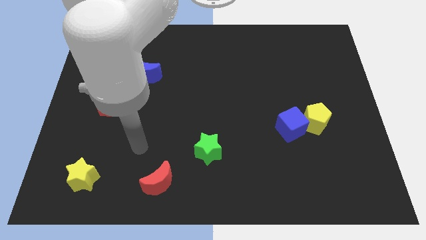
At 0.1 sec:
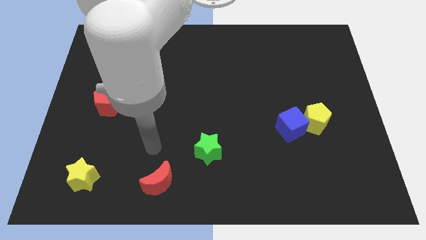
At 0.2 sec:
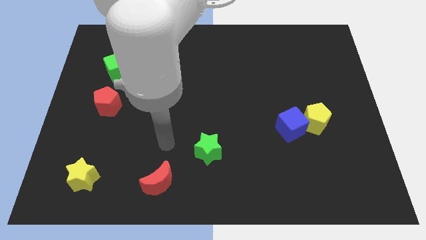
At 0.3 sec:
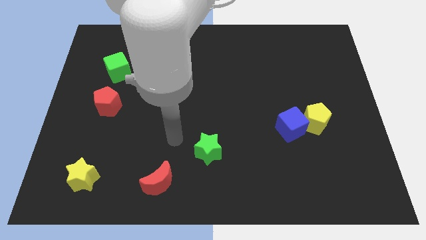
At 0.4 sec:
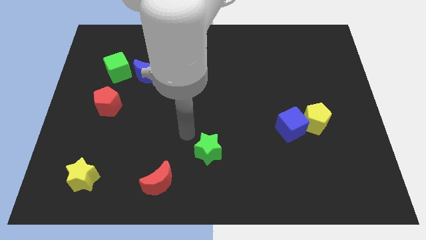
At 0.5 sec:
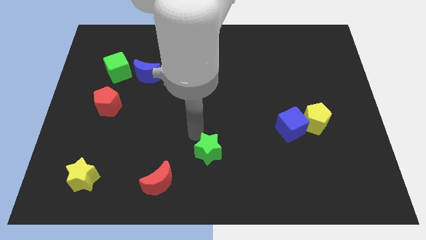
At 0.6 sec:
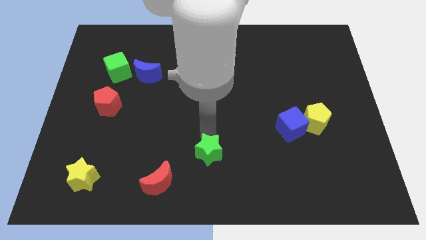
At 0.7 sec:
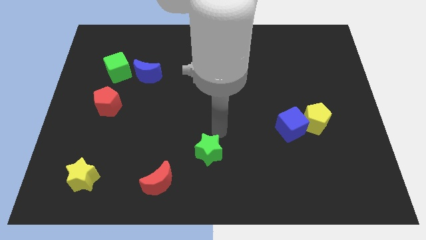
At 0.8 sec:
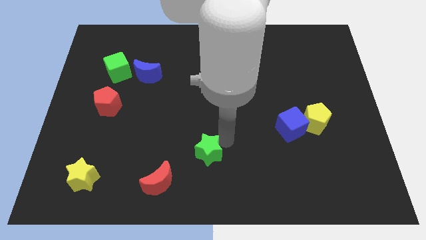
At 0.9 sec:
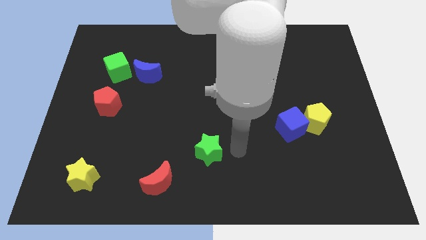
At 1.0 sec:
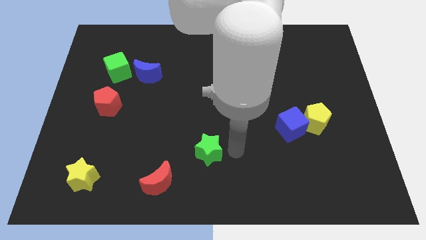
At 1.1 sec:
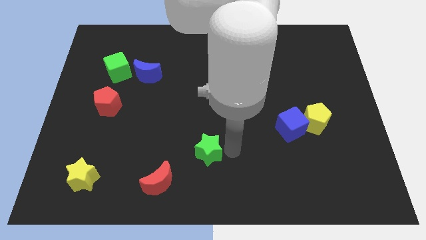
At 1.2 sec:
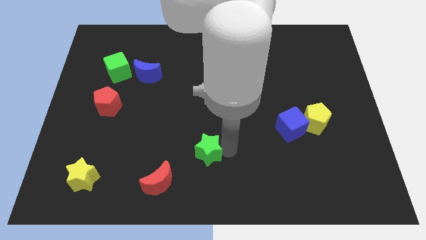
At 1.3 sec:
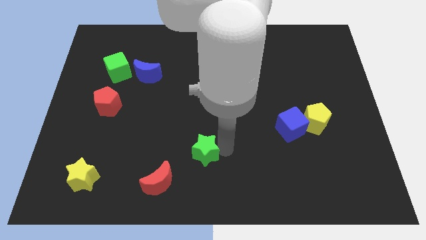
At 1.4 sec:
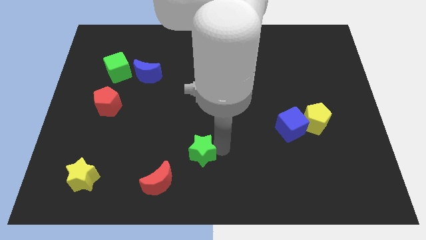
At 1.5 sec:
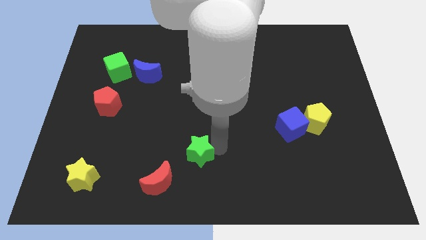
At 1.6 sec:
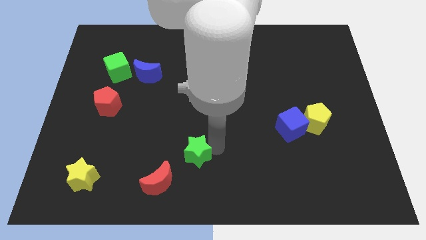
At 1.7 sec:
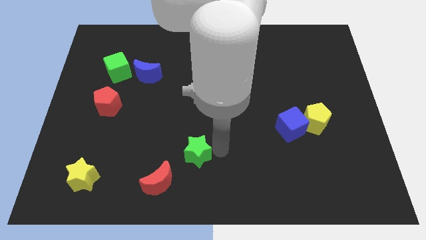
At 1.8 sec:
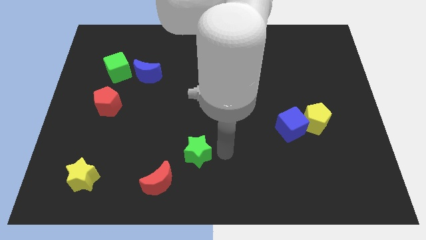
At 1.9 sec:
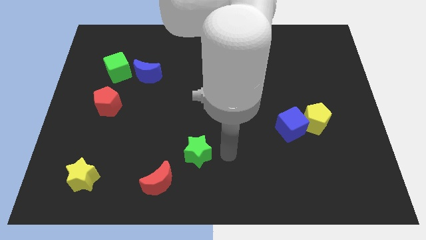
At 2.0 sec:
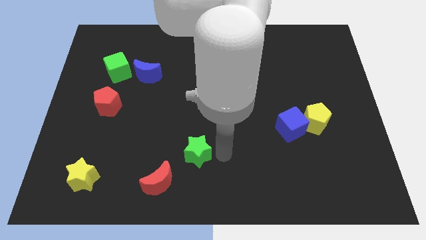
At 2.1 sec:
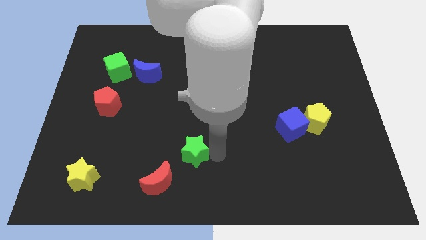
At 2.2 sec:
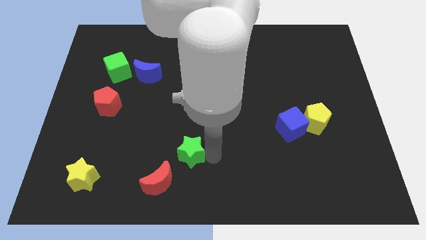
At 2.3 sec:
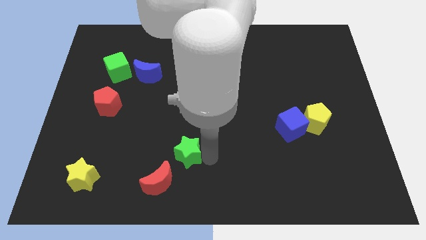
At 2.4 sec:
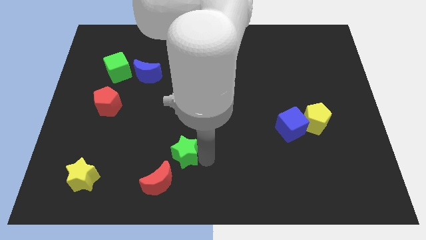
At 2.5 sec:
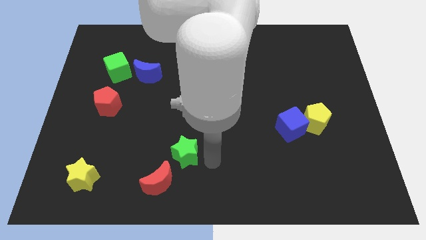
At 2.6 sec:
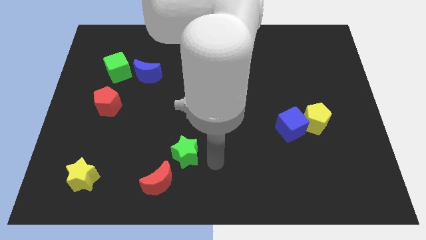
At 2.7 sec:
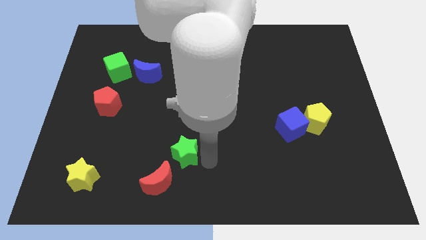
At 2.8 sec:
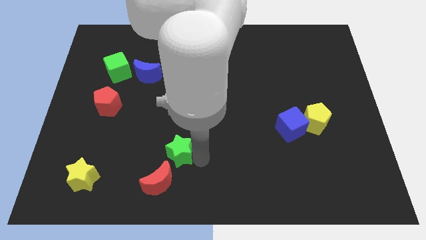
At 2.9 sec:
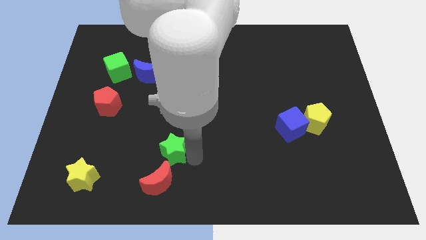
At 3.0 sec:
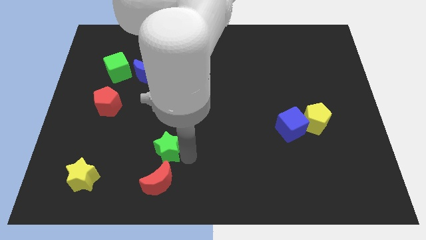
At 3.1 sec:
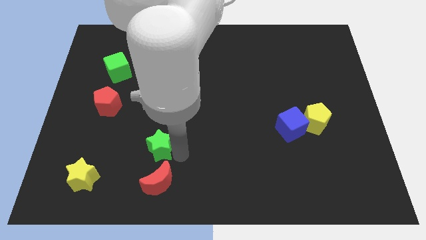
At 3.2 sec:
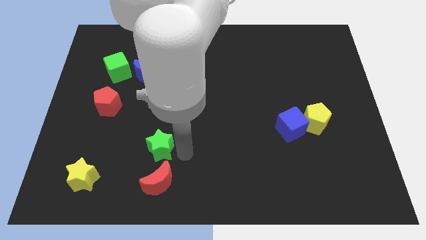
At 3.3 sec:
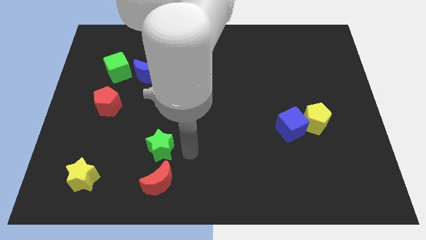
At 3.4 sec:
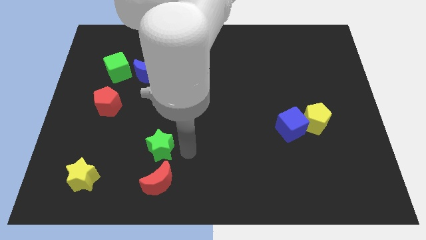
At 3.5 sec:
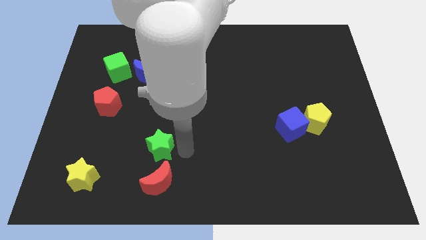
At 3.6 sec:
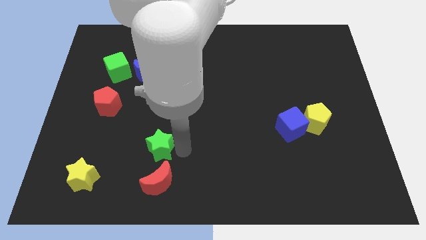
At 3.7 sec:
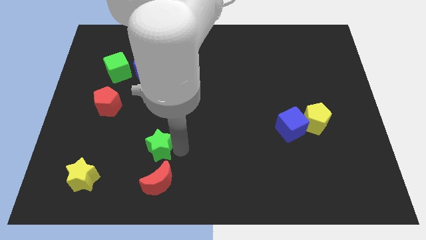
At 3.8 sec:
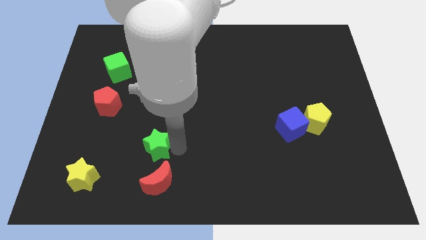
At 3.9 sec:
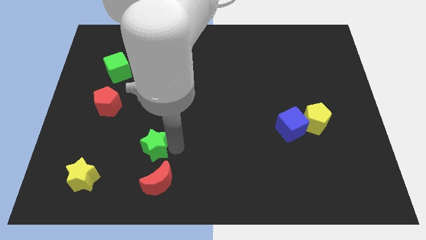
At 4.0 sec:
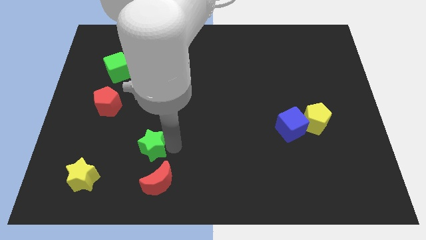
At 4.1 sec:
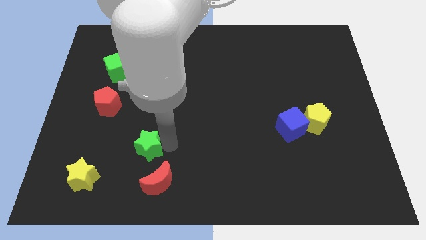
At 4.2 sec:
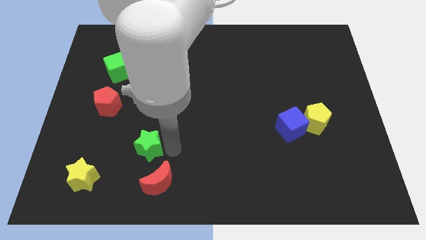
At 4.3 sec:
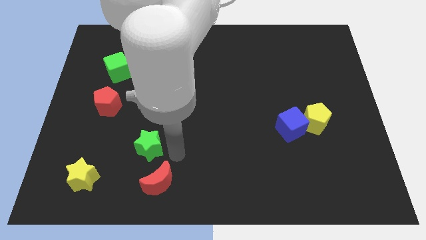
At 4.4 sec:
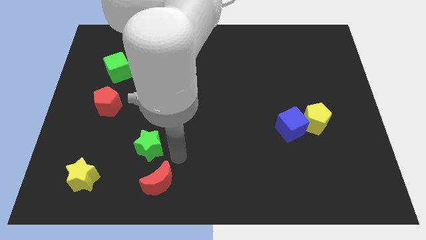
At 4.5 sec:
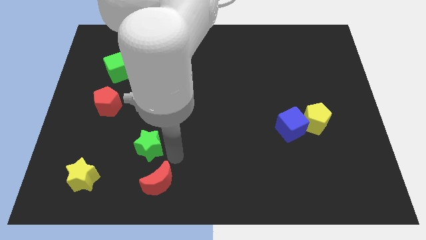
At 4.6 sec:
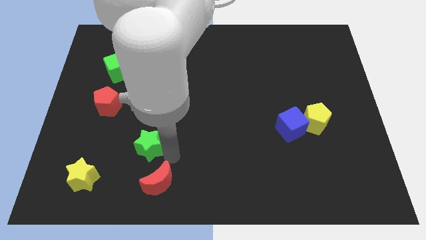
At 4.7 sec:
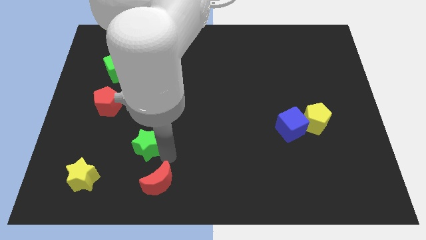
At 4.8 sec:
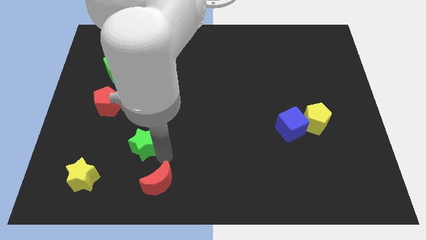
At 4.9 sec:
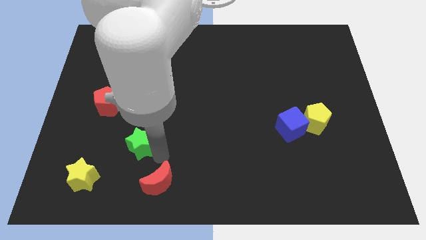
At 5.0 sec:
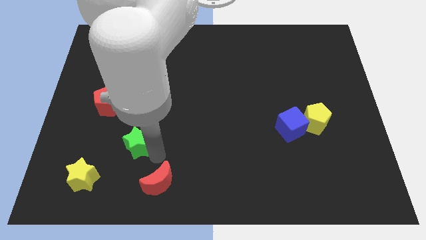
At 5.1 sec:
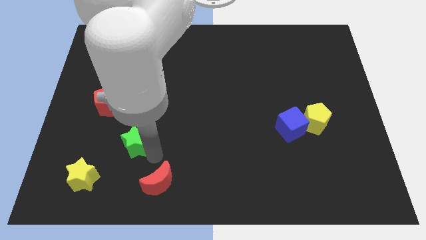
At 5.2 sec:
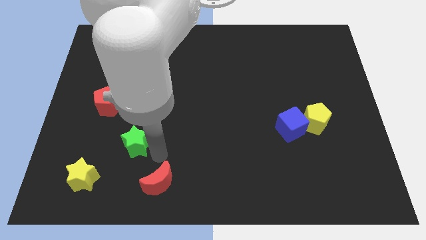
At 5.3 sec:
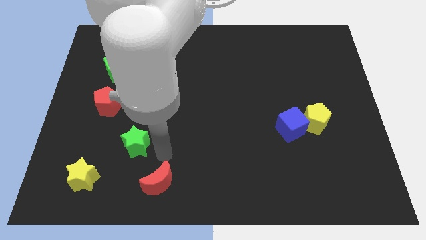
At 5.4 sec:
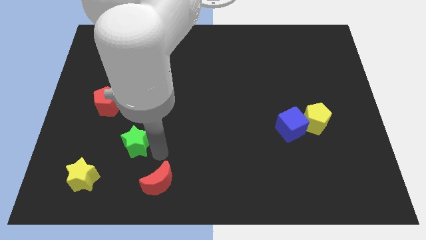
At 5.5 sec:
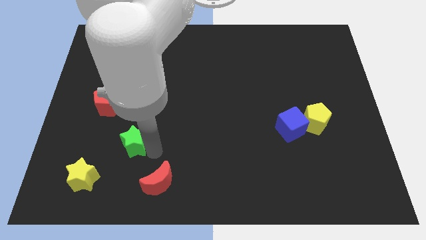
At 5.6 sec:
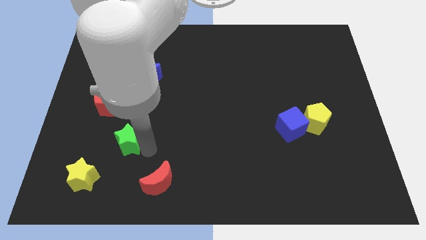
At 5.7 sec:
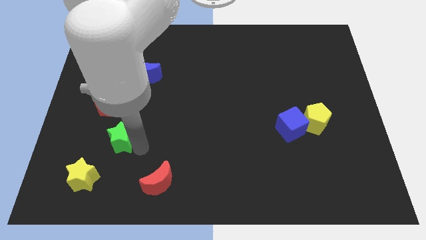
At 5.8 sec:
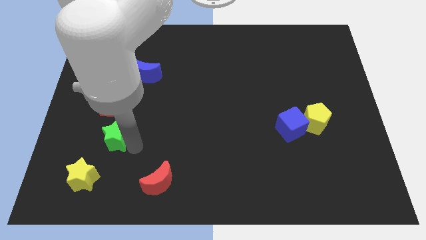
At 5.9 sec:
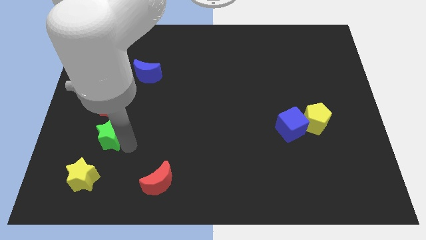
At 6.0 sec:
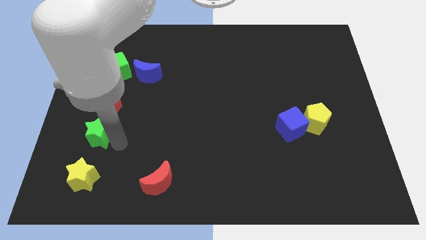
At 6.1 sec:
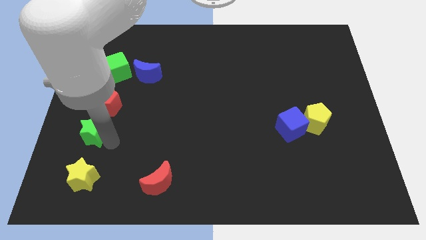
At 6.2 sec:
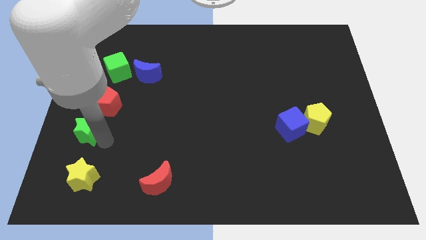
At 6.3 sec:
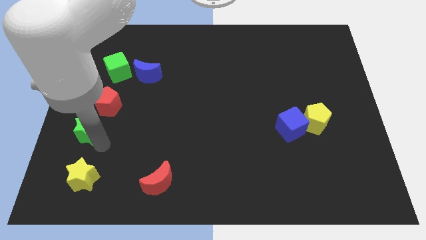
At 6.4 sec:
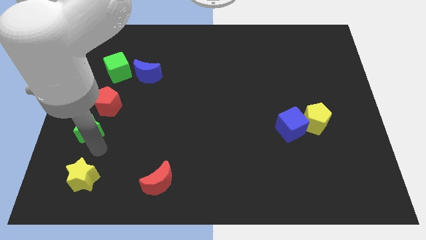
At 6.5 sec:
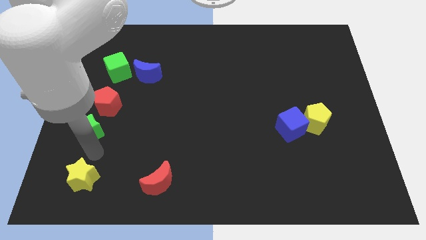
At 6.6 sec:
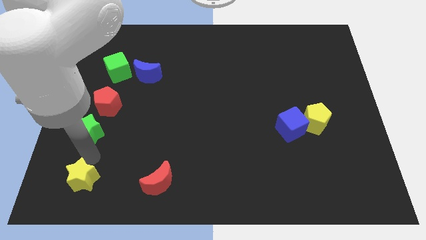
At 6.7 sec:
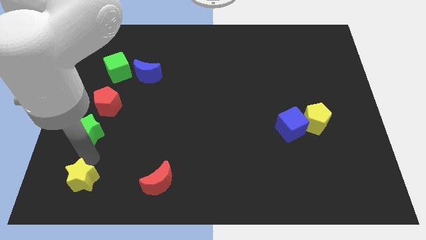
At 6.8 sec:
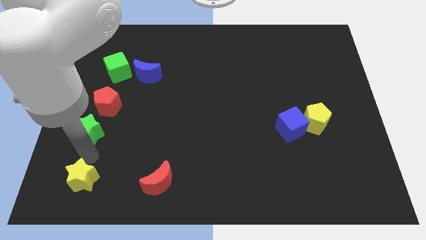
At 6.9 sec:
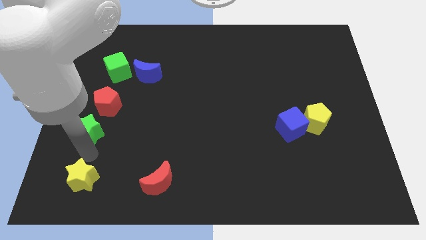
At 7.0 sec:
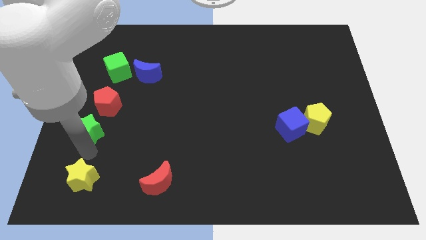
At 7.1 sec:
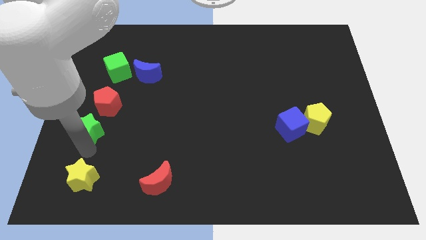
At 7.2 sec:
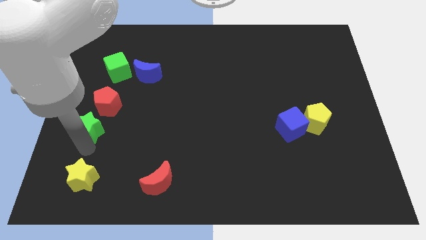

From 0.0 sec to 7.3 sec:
slide the green star to the left side
